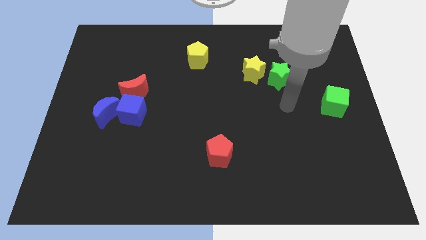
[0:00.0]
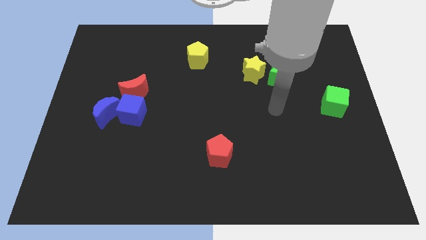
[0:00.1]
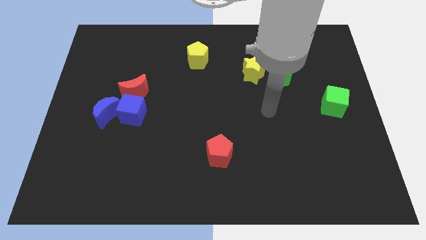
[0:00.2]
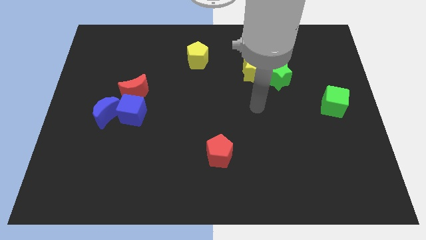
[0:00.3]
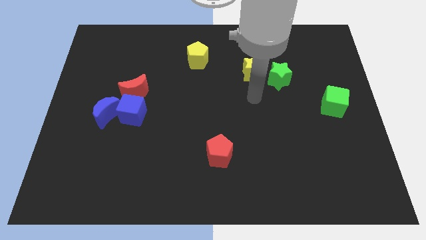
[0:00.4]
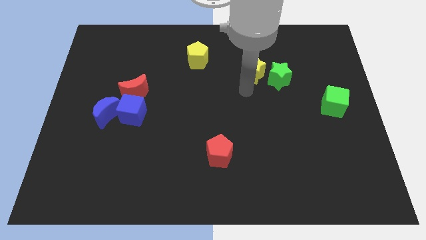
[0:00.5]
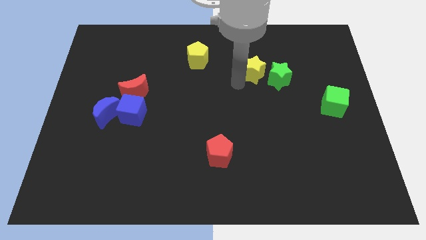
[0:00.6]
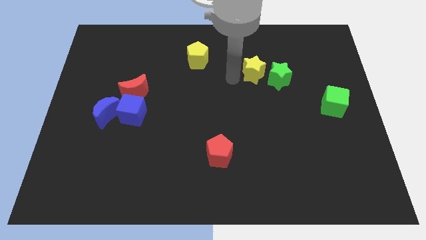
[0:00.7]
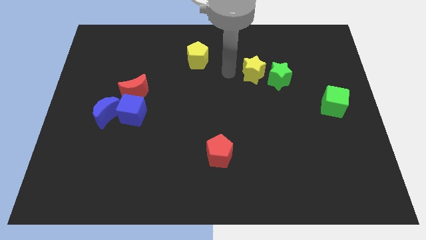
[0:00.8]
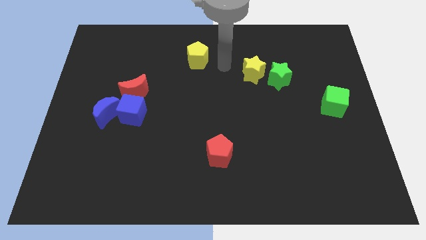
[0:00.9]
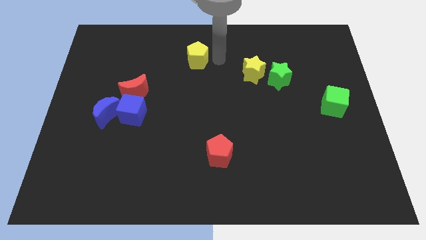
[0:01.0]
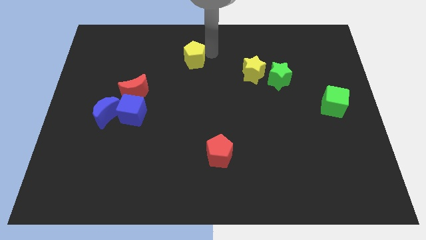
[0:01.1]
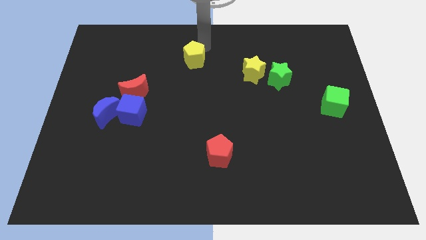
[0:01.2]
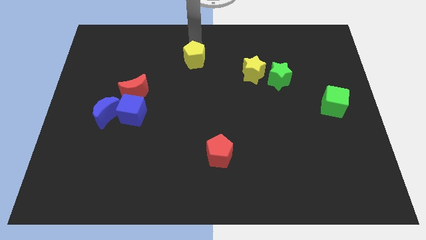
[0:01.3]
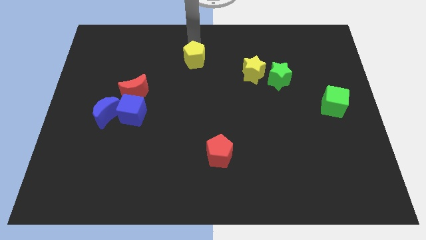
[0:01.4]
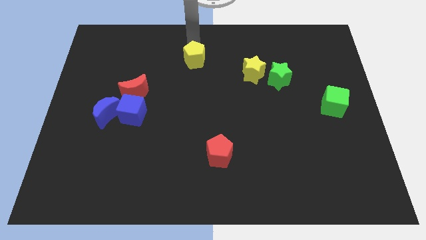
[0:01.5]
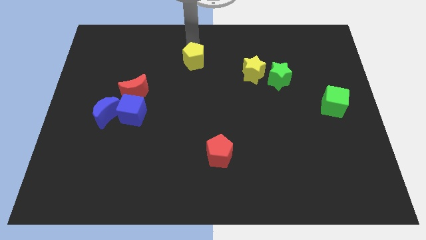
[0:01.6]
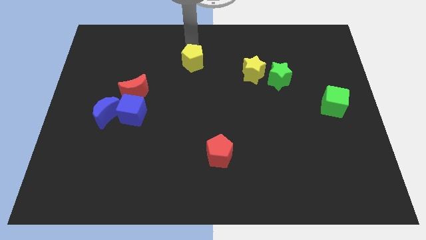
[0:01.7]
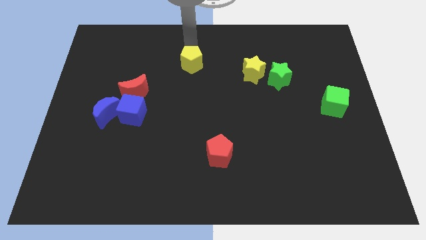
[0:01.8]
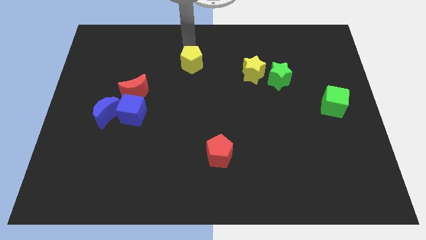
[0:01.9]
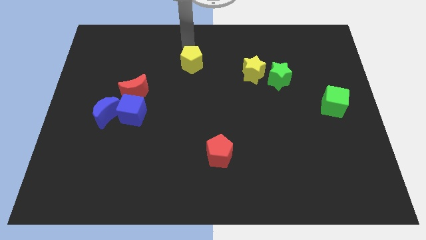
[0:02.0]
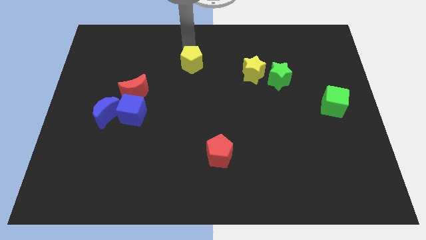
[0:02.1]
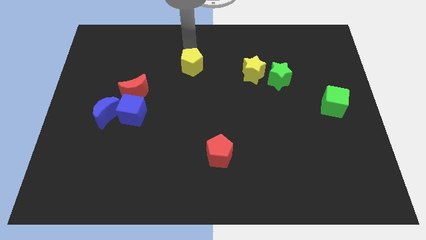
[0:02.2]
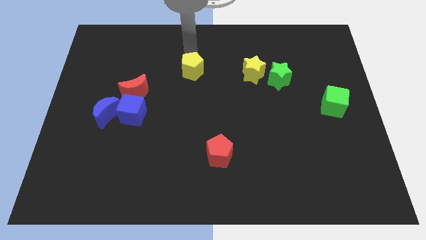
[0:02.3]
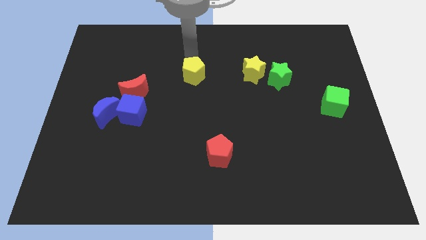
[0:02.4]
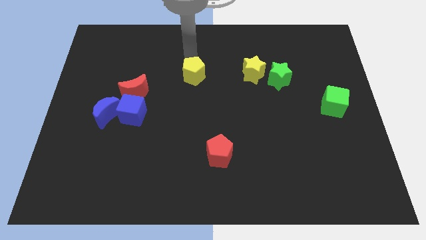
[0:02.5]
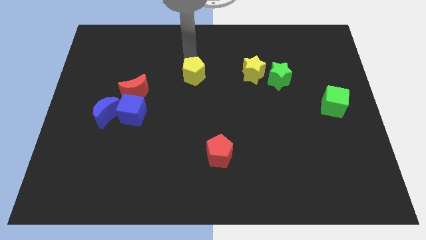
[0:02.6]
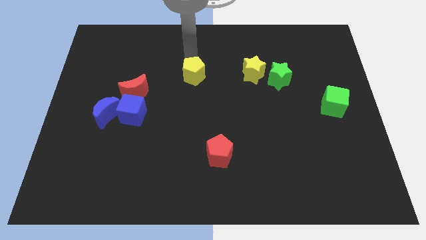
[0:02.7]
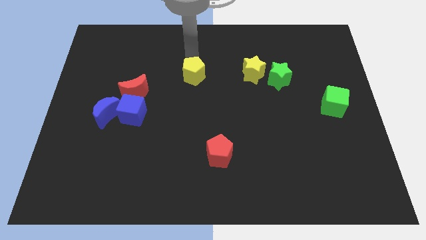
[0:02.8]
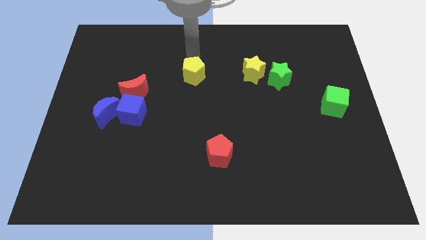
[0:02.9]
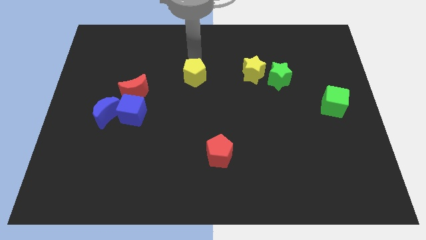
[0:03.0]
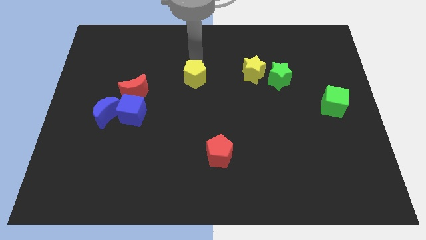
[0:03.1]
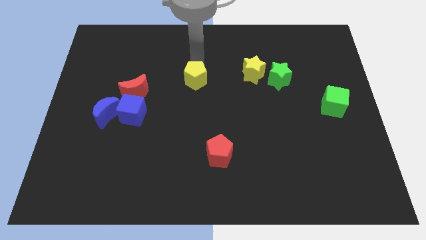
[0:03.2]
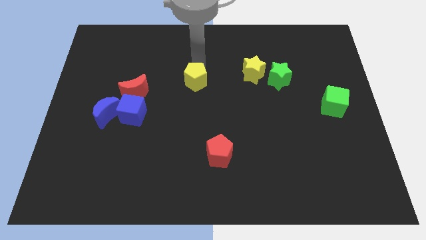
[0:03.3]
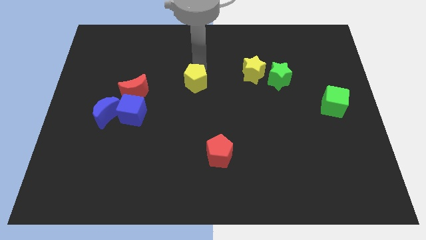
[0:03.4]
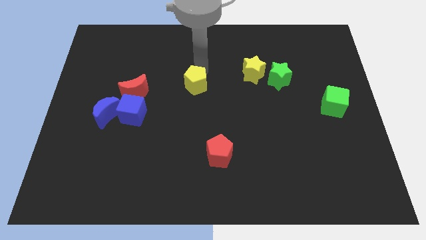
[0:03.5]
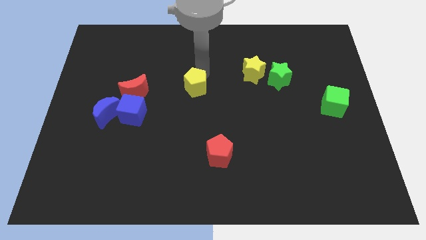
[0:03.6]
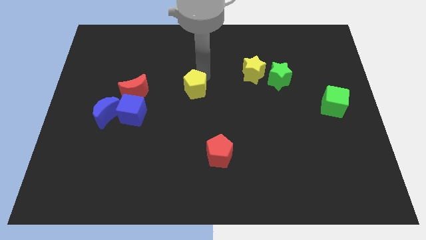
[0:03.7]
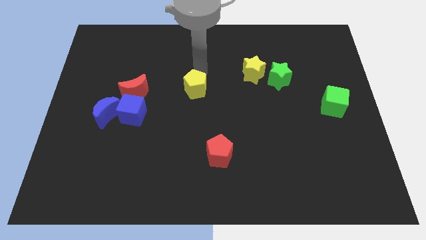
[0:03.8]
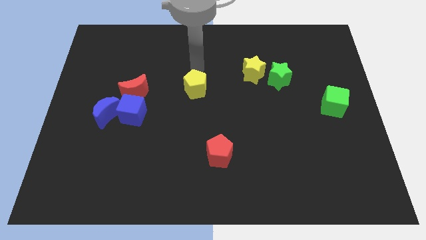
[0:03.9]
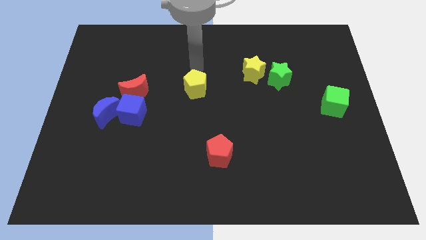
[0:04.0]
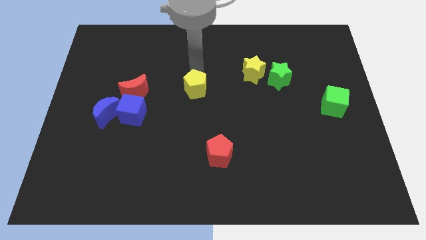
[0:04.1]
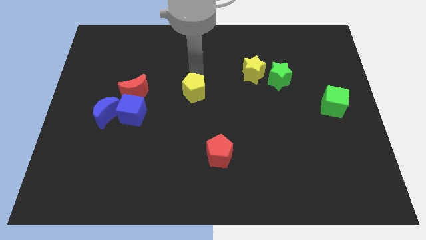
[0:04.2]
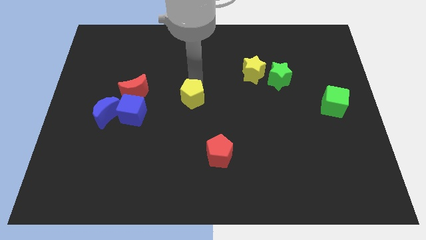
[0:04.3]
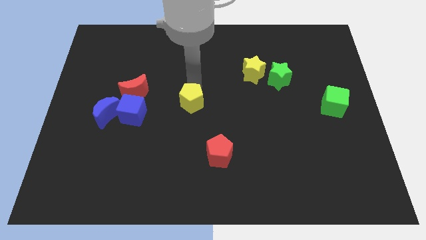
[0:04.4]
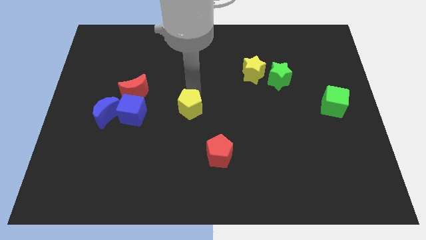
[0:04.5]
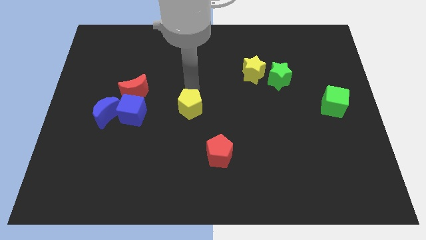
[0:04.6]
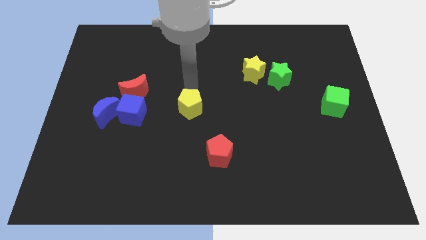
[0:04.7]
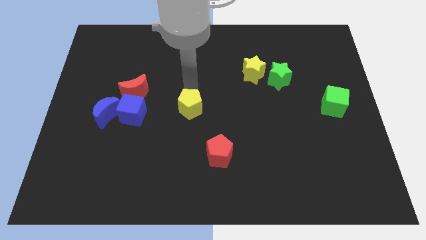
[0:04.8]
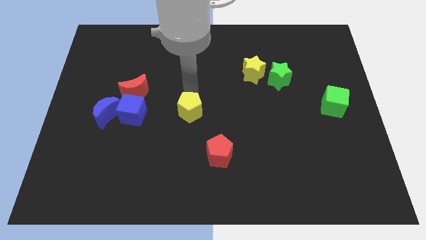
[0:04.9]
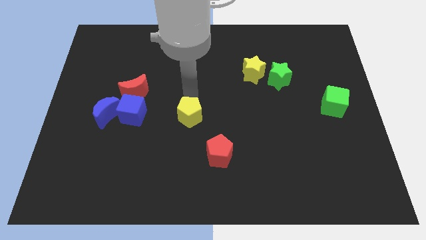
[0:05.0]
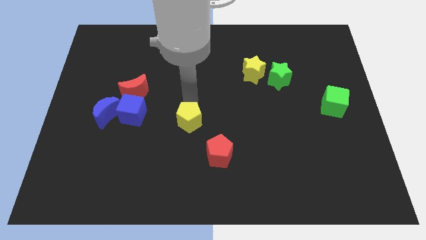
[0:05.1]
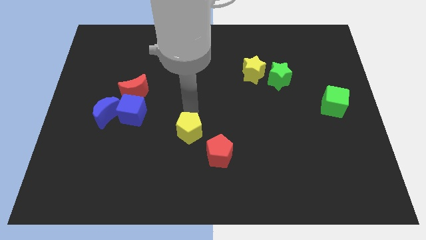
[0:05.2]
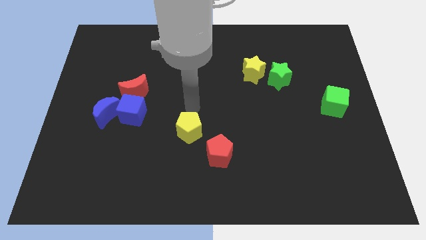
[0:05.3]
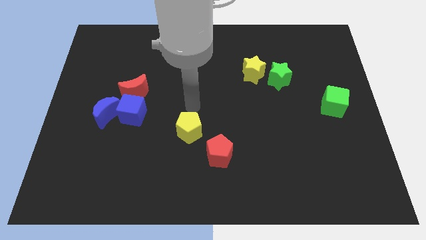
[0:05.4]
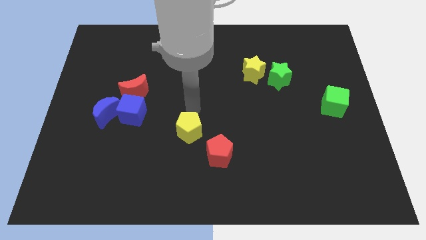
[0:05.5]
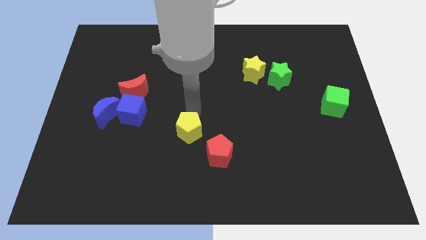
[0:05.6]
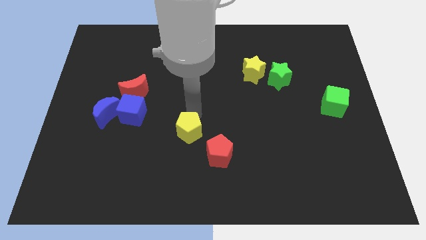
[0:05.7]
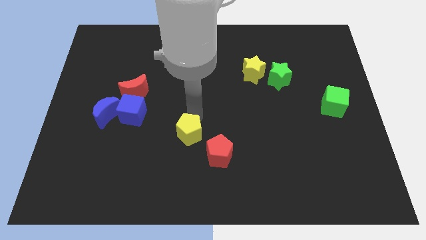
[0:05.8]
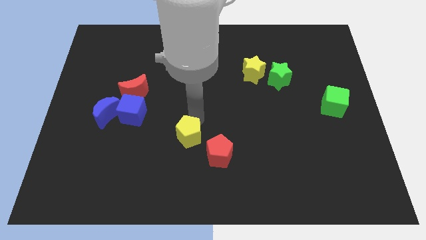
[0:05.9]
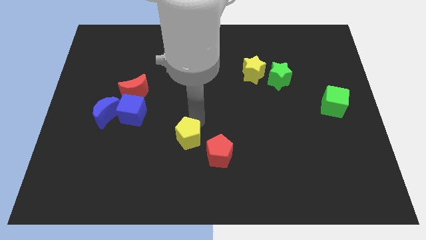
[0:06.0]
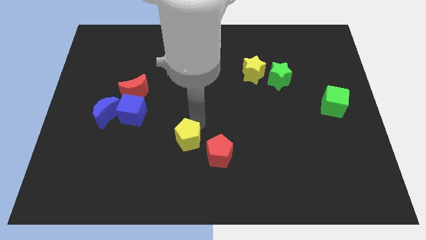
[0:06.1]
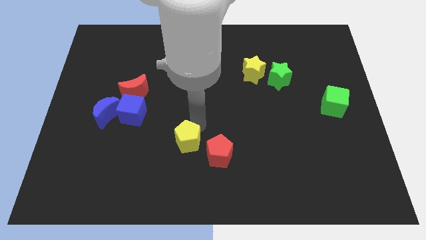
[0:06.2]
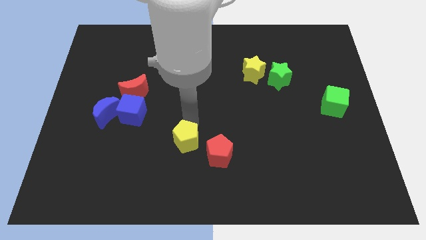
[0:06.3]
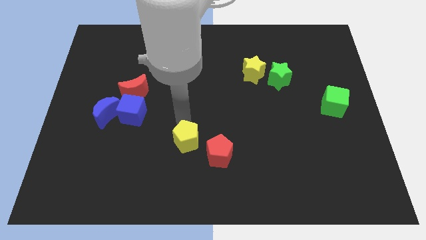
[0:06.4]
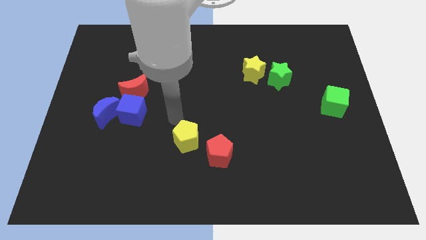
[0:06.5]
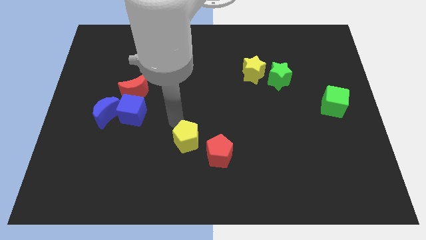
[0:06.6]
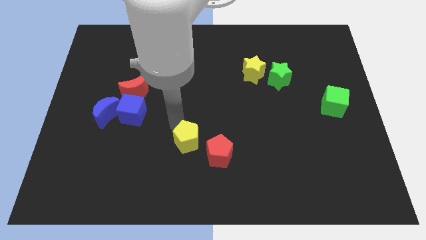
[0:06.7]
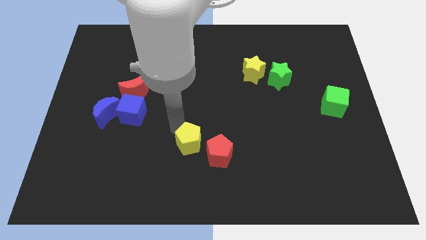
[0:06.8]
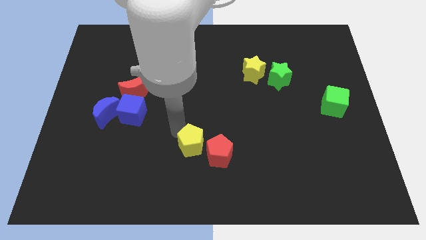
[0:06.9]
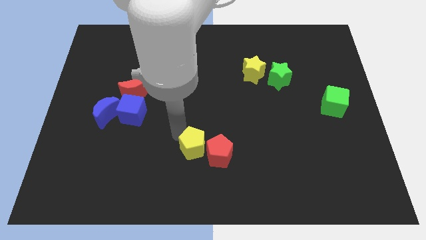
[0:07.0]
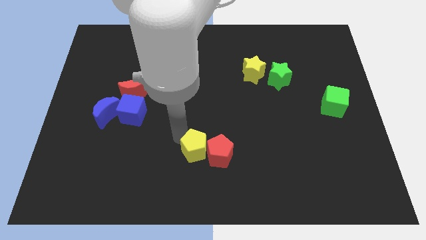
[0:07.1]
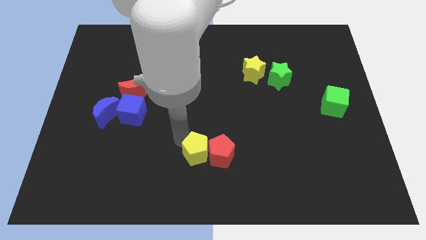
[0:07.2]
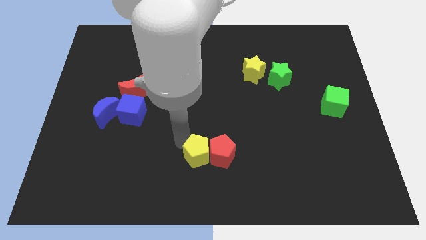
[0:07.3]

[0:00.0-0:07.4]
slide the yellow pentagon to the bottom
